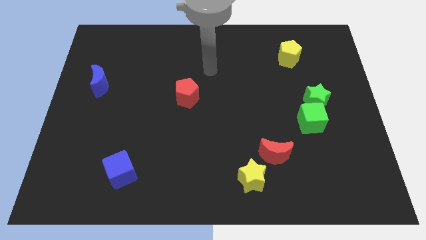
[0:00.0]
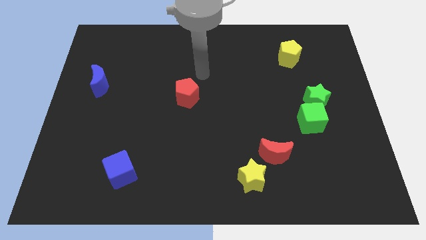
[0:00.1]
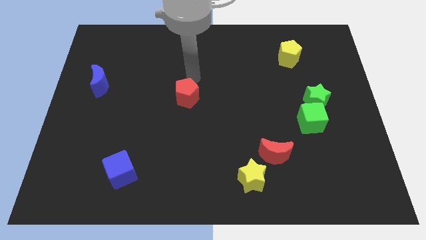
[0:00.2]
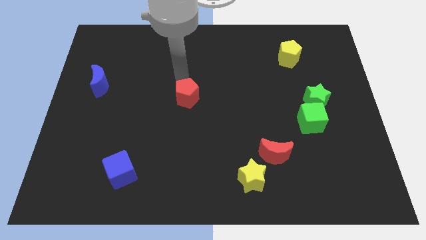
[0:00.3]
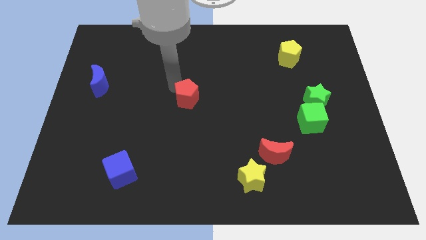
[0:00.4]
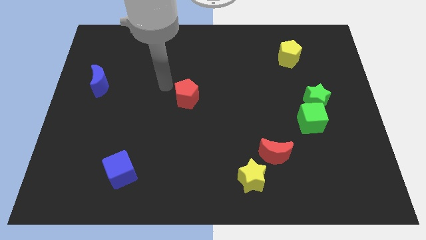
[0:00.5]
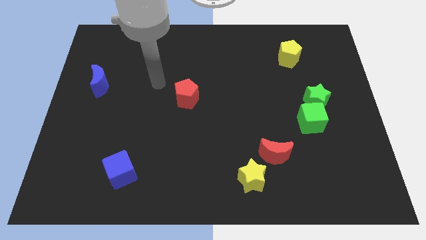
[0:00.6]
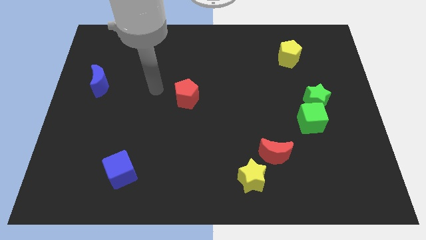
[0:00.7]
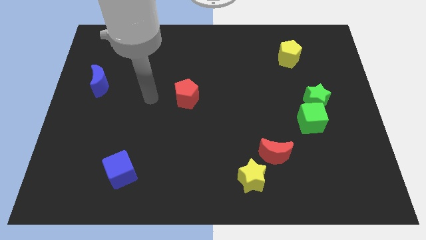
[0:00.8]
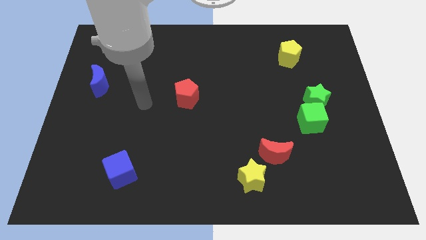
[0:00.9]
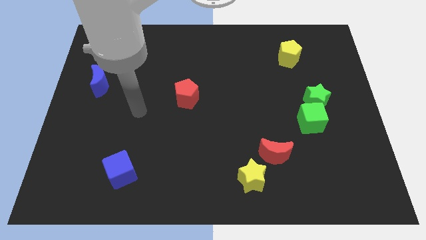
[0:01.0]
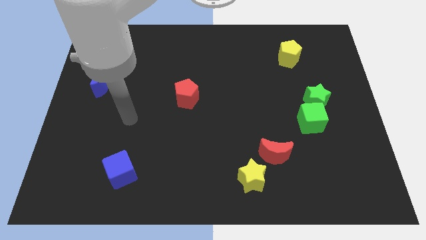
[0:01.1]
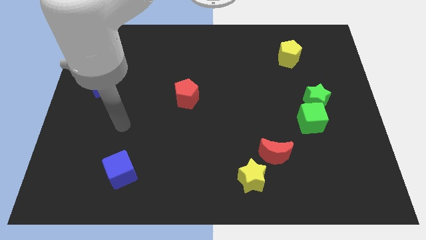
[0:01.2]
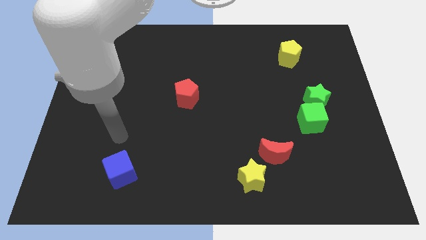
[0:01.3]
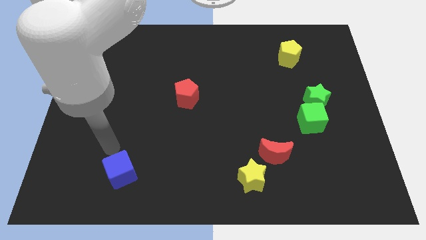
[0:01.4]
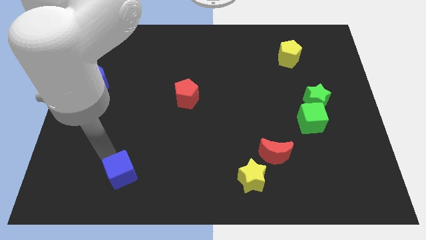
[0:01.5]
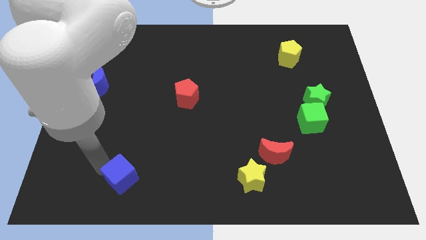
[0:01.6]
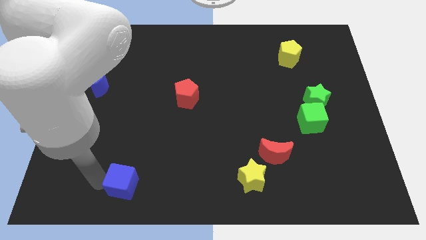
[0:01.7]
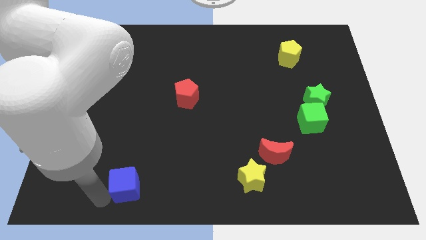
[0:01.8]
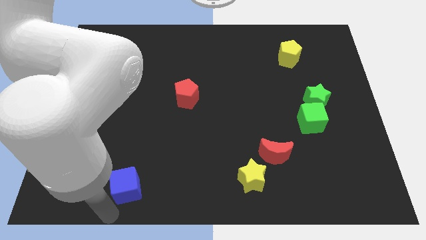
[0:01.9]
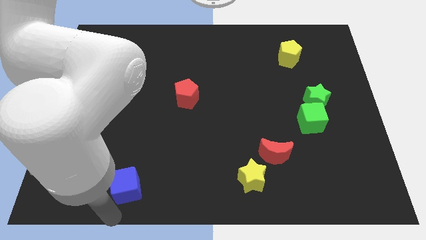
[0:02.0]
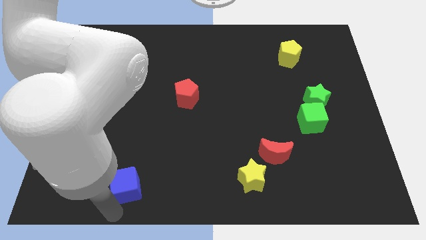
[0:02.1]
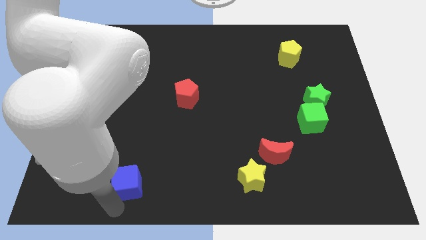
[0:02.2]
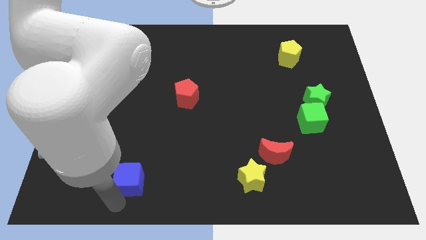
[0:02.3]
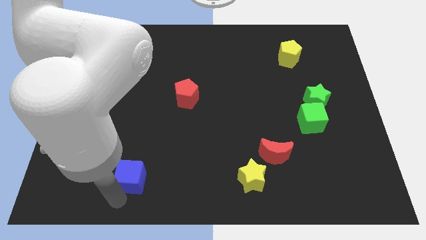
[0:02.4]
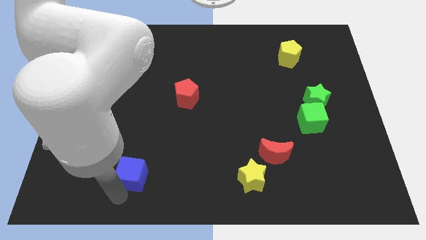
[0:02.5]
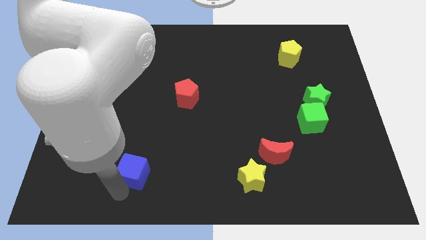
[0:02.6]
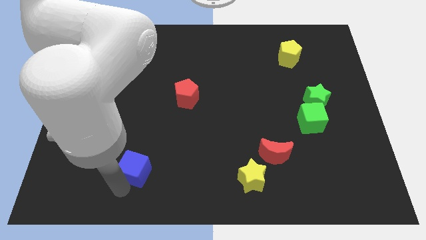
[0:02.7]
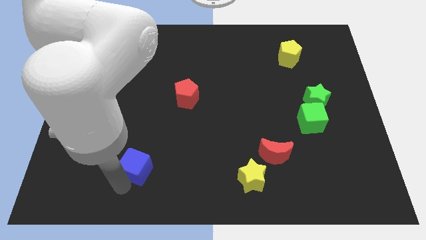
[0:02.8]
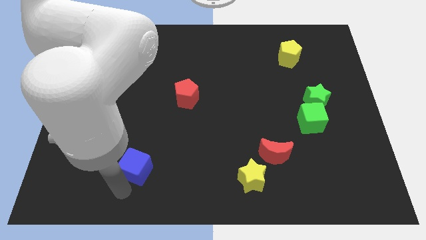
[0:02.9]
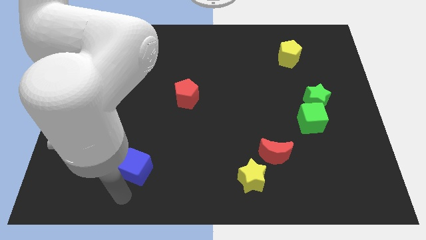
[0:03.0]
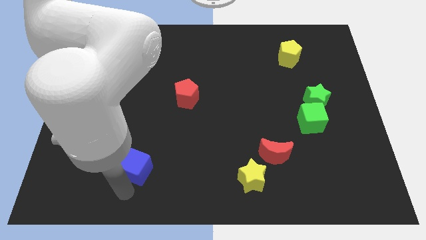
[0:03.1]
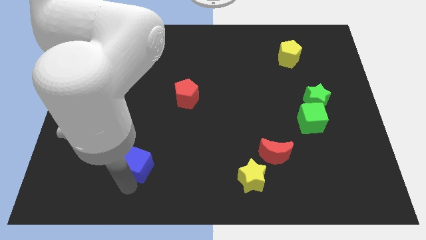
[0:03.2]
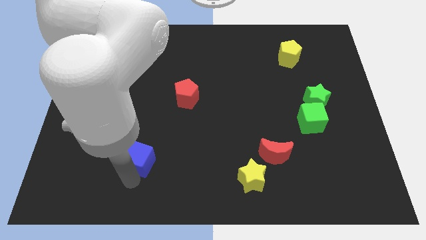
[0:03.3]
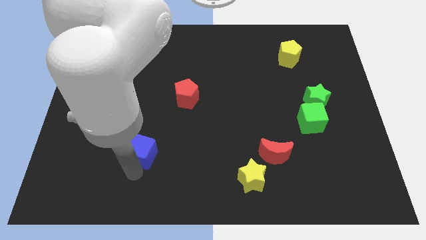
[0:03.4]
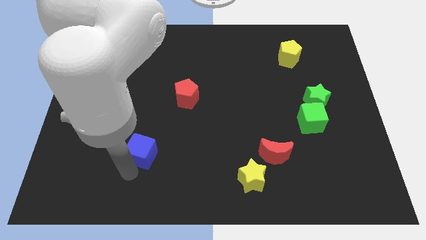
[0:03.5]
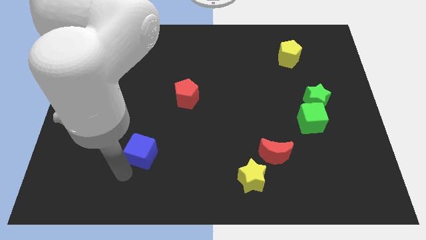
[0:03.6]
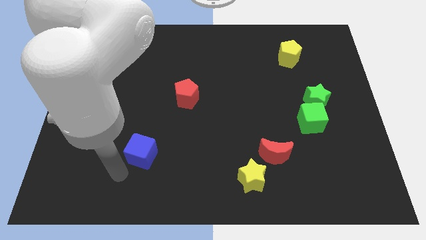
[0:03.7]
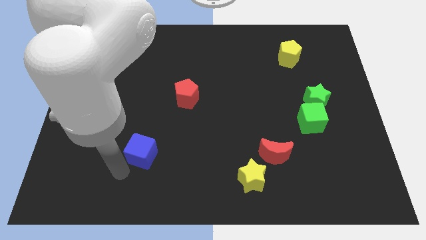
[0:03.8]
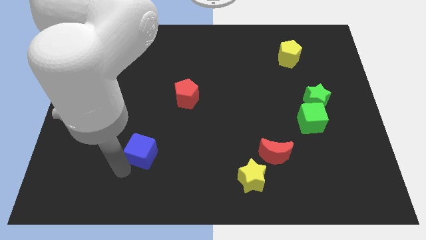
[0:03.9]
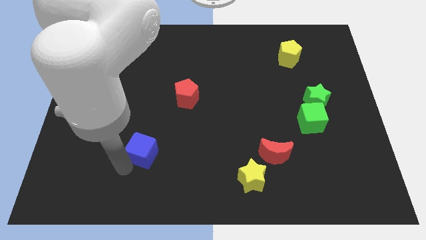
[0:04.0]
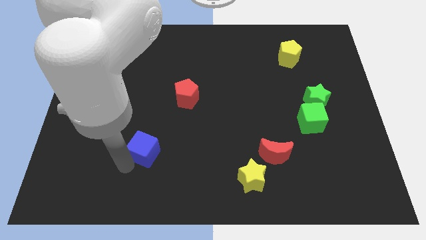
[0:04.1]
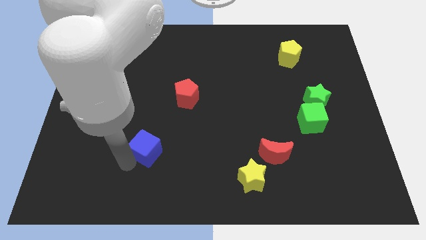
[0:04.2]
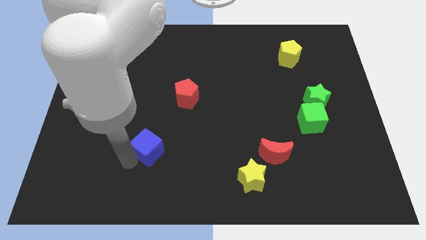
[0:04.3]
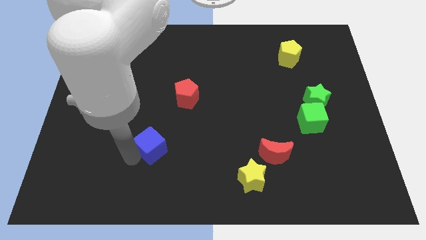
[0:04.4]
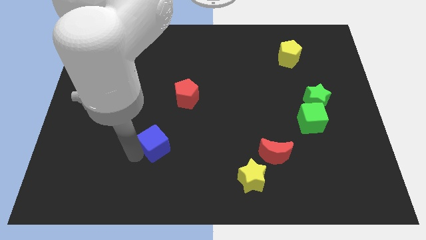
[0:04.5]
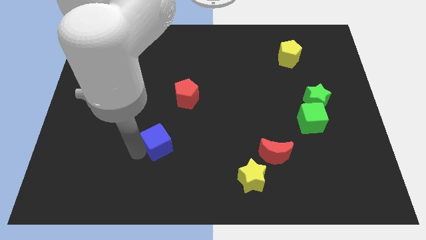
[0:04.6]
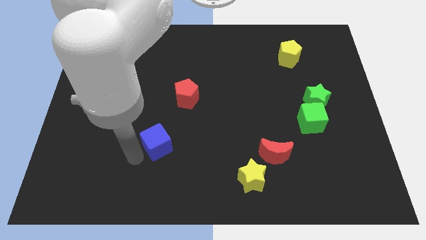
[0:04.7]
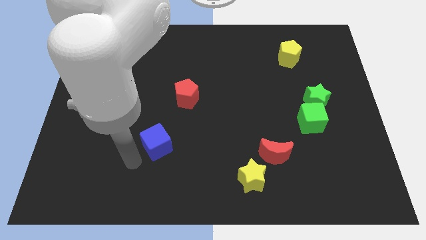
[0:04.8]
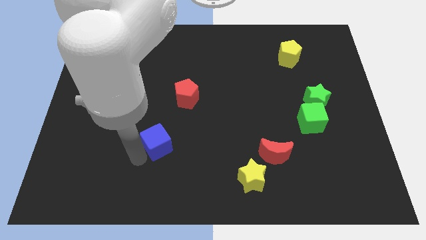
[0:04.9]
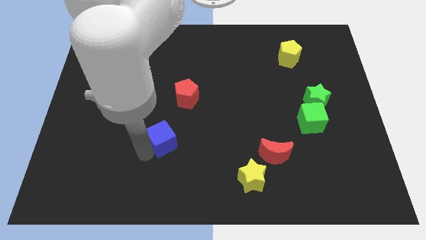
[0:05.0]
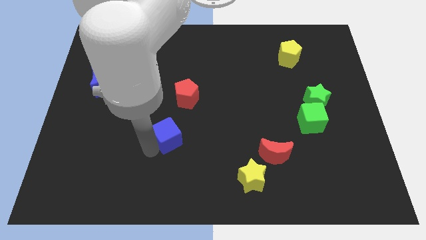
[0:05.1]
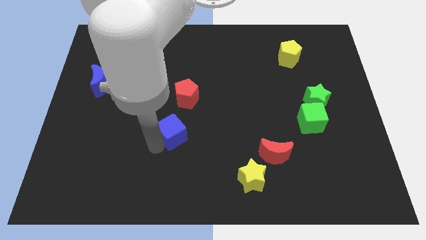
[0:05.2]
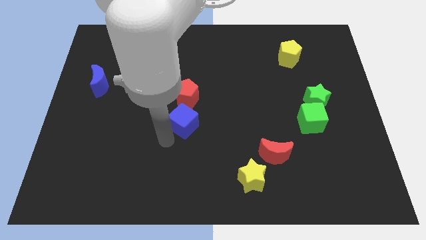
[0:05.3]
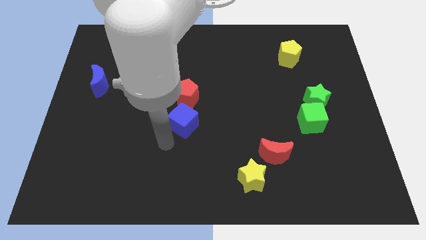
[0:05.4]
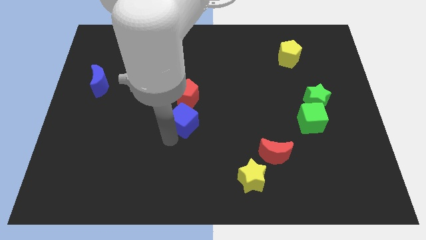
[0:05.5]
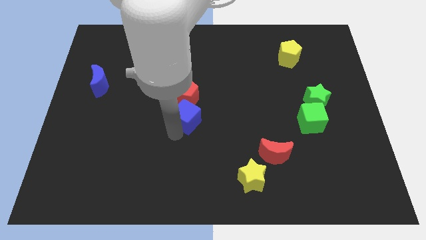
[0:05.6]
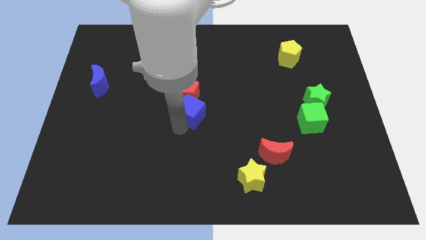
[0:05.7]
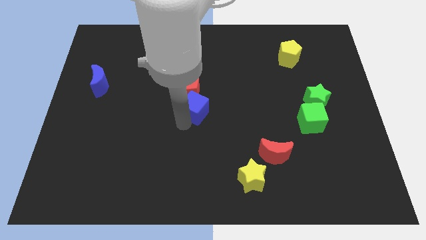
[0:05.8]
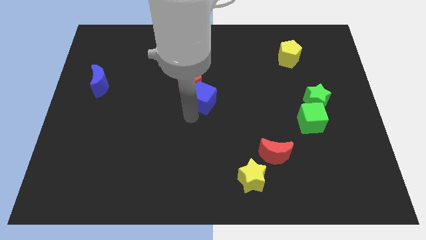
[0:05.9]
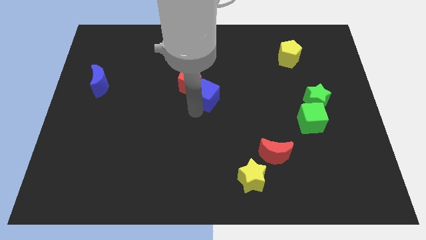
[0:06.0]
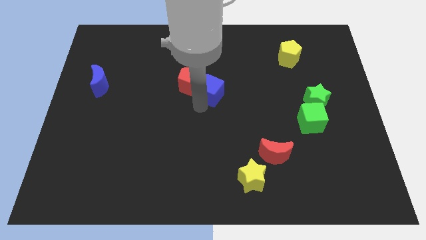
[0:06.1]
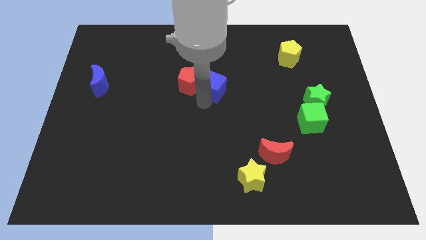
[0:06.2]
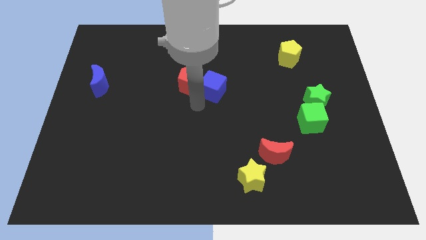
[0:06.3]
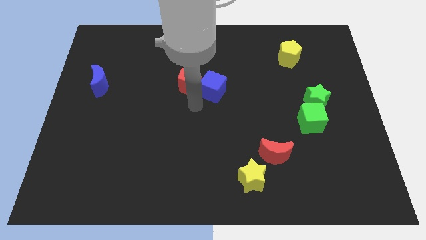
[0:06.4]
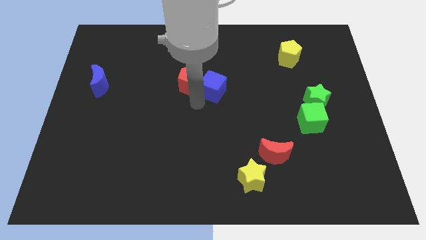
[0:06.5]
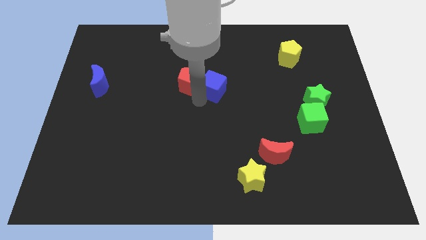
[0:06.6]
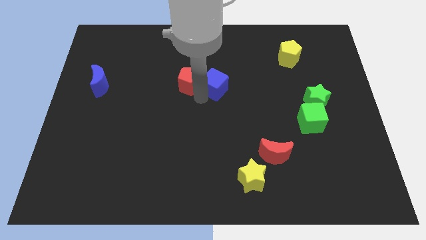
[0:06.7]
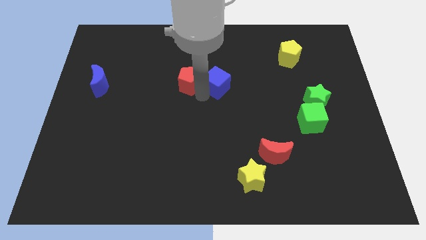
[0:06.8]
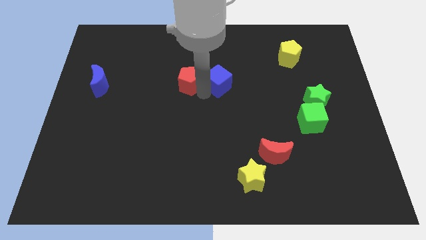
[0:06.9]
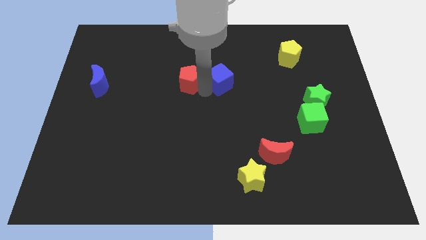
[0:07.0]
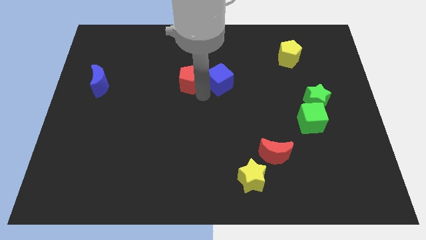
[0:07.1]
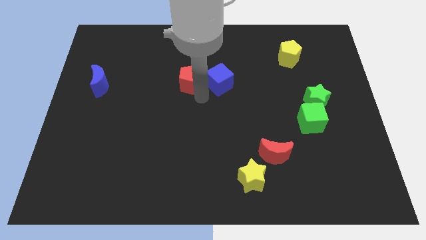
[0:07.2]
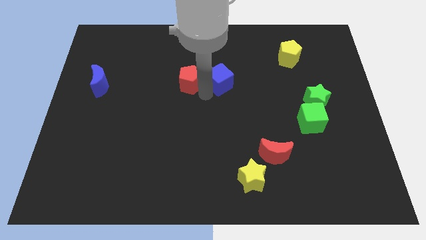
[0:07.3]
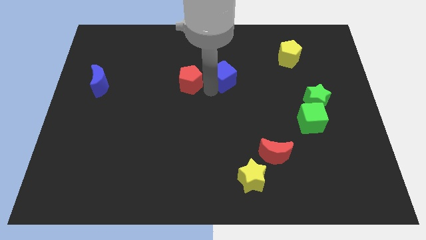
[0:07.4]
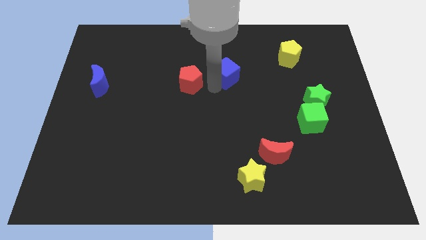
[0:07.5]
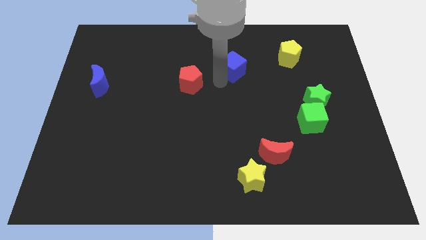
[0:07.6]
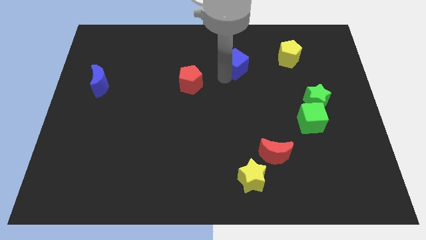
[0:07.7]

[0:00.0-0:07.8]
move the blue cube to the left side of the yellow pentagon
